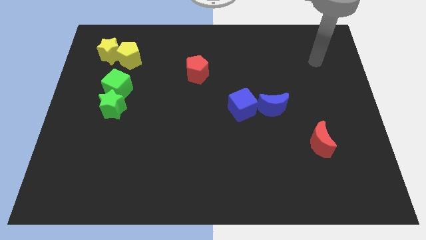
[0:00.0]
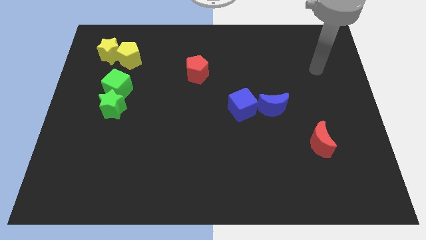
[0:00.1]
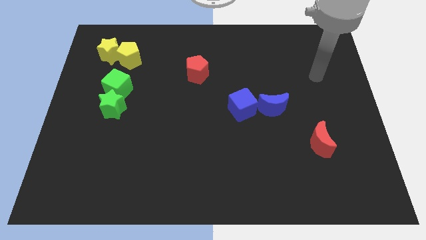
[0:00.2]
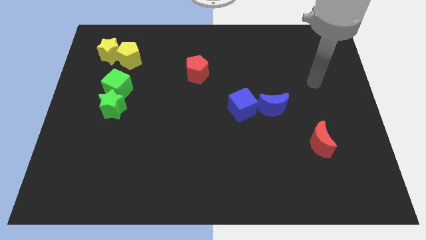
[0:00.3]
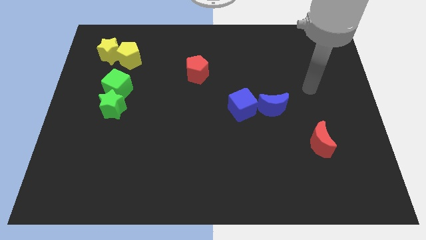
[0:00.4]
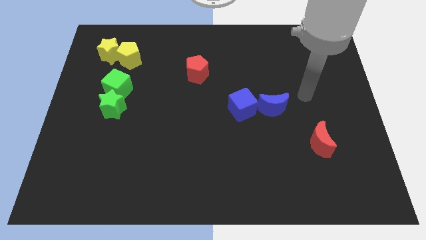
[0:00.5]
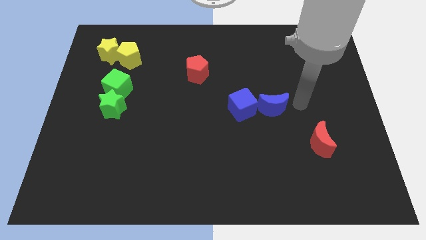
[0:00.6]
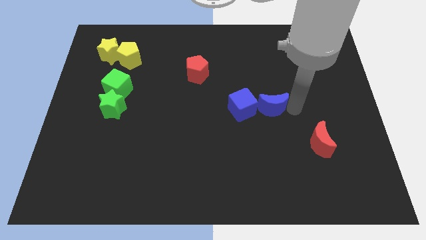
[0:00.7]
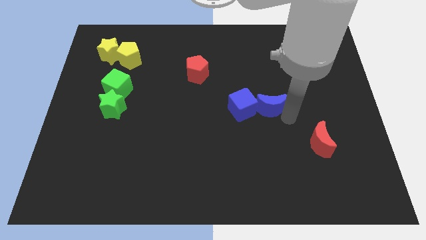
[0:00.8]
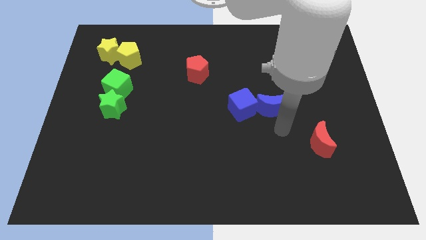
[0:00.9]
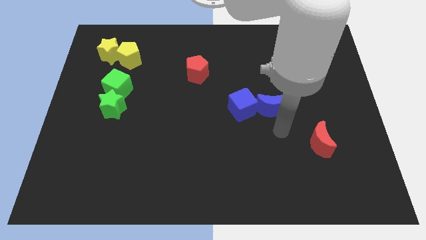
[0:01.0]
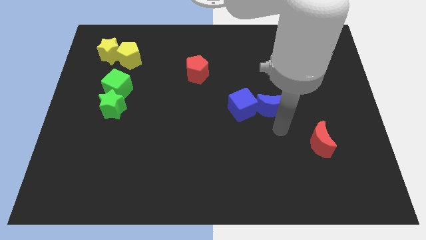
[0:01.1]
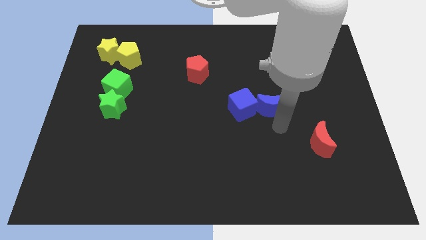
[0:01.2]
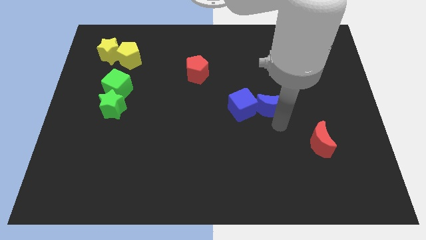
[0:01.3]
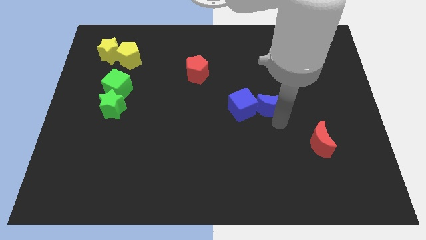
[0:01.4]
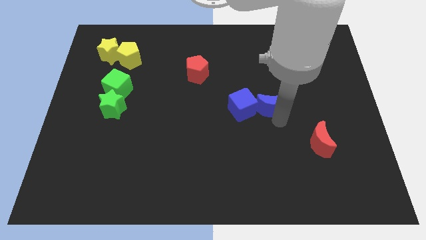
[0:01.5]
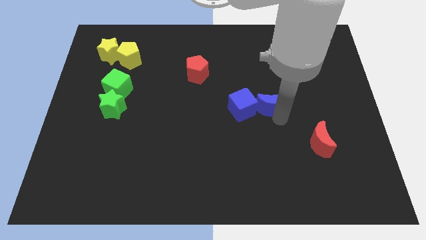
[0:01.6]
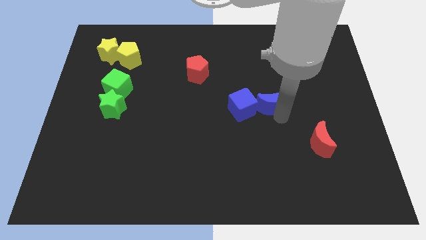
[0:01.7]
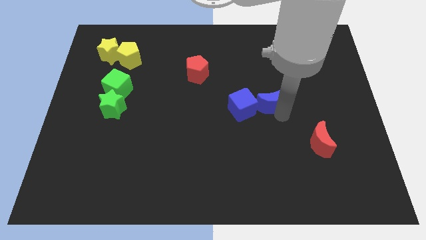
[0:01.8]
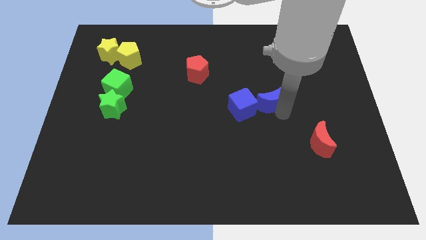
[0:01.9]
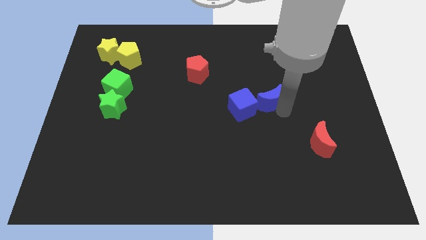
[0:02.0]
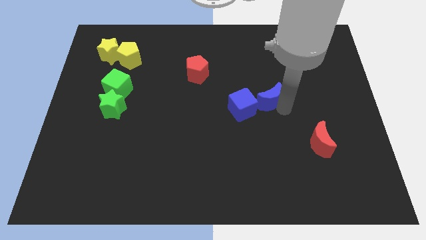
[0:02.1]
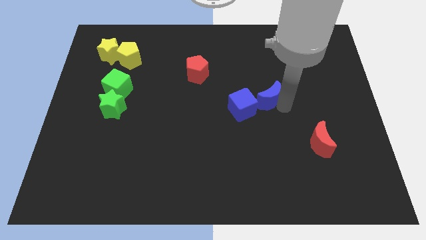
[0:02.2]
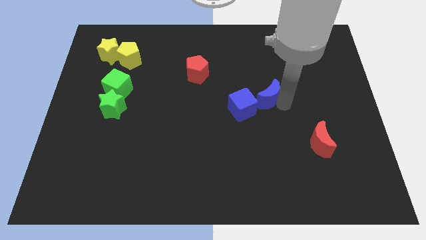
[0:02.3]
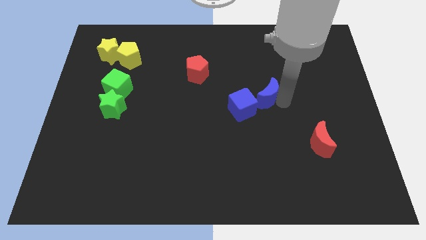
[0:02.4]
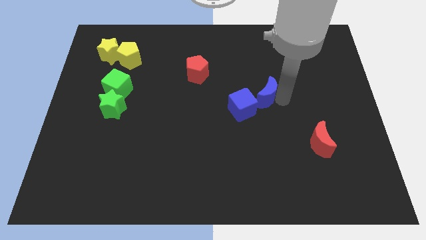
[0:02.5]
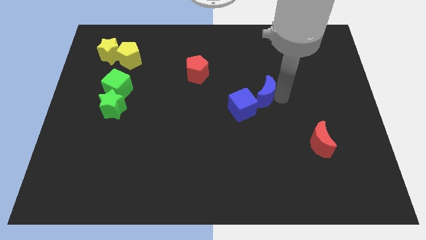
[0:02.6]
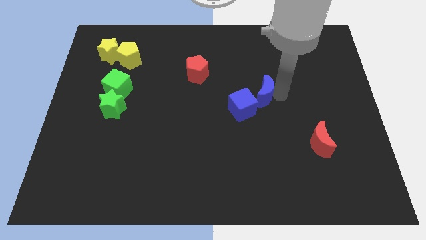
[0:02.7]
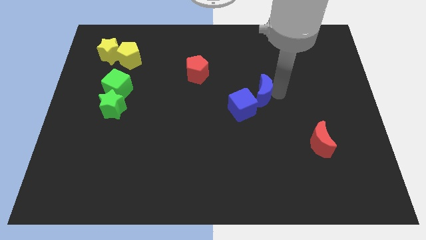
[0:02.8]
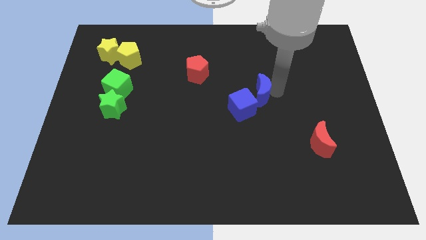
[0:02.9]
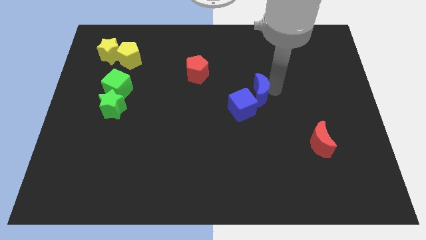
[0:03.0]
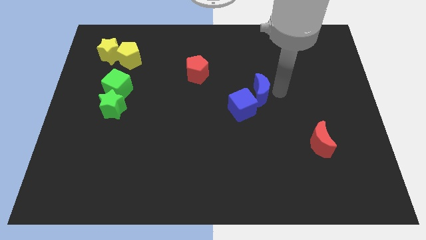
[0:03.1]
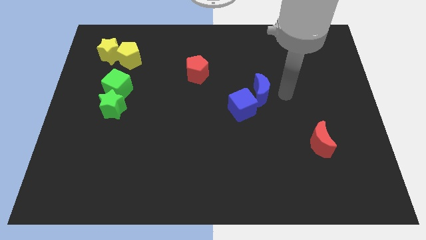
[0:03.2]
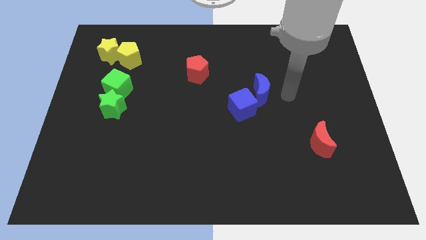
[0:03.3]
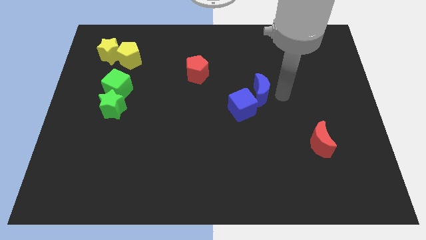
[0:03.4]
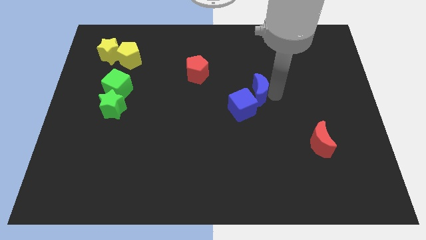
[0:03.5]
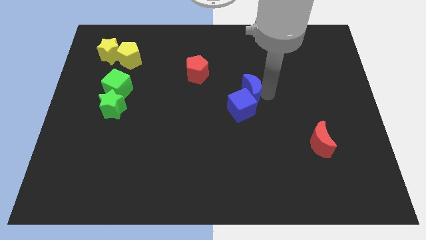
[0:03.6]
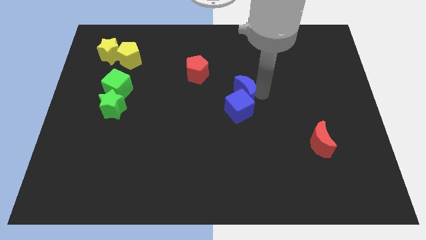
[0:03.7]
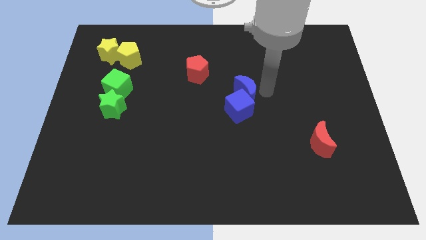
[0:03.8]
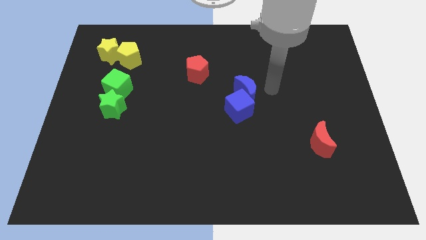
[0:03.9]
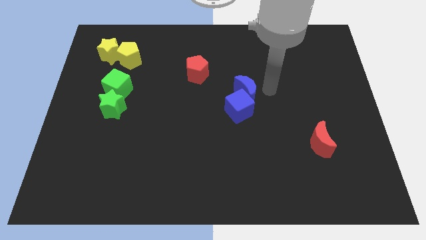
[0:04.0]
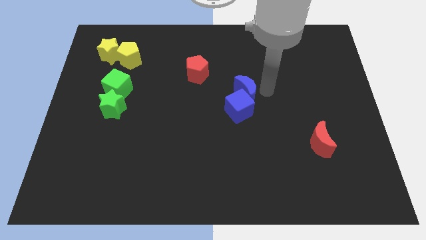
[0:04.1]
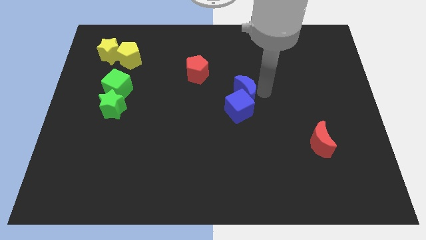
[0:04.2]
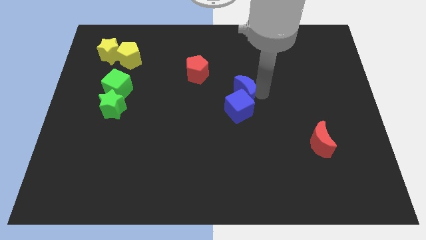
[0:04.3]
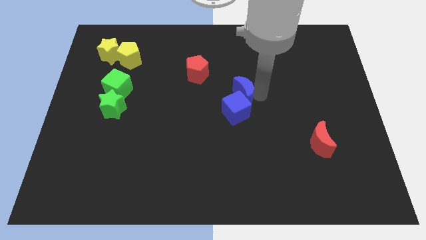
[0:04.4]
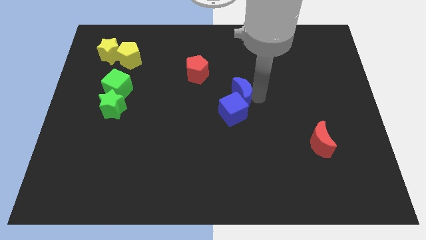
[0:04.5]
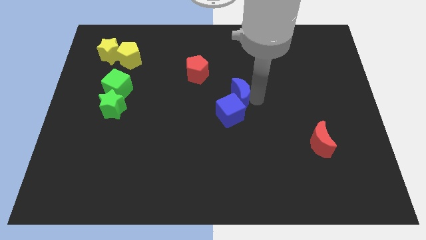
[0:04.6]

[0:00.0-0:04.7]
move the blue moon to the left a little bit

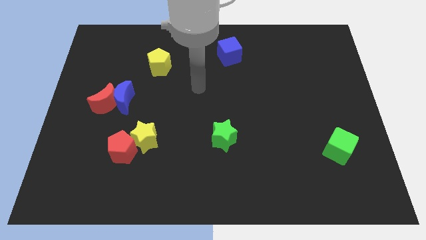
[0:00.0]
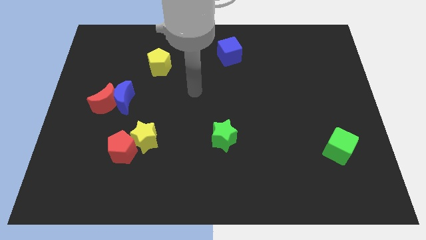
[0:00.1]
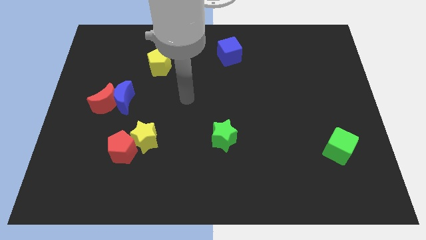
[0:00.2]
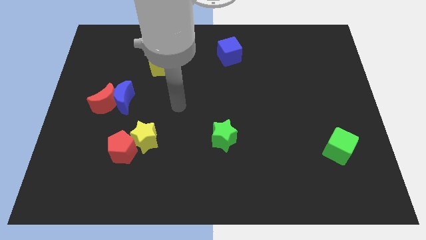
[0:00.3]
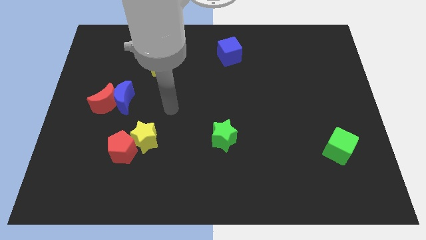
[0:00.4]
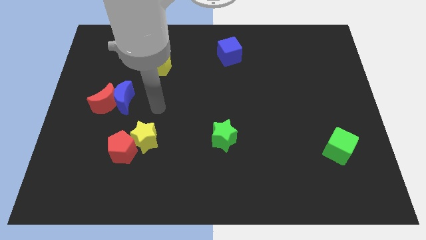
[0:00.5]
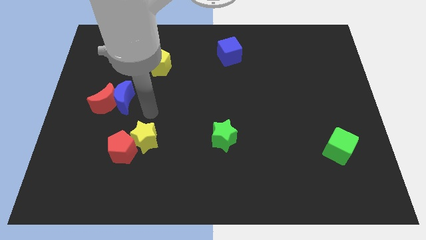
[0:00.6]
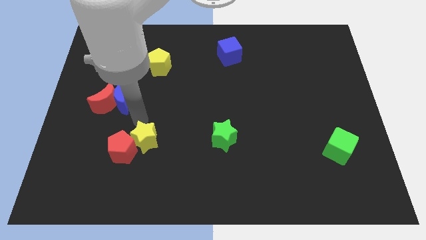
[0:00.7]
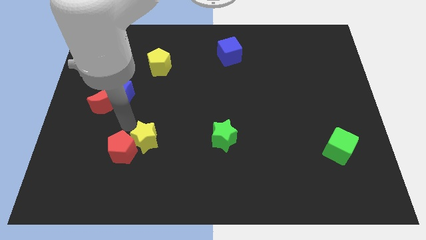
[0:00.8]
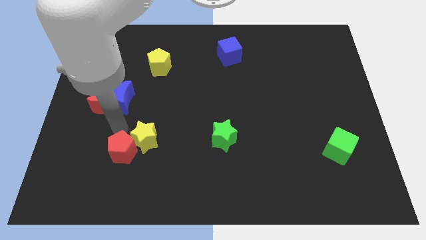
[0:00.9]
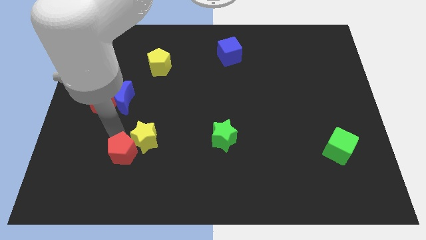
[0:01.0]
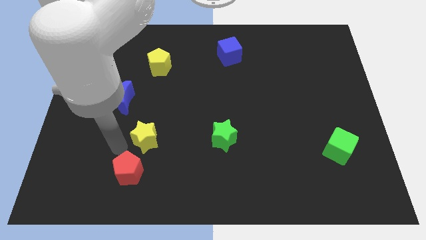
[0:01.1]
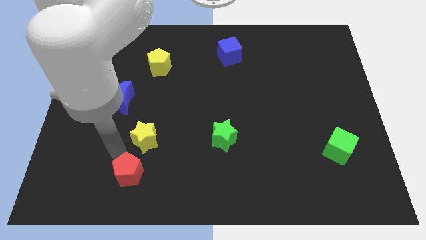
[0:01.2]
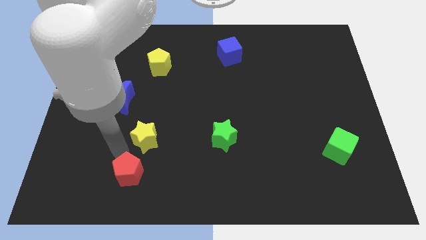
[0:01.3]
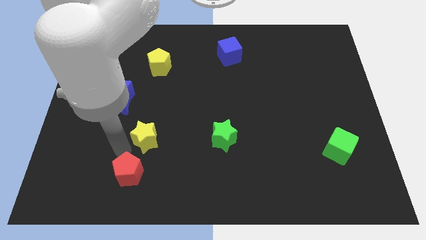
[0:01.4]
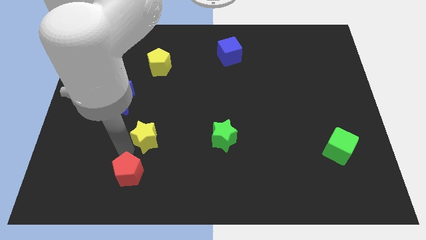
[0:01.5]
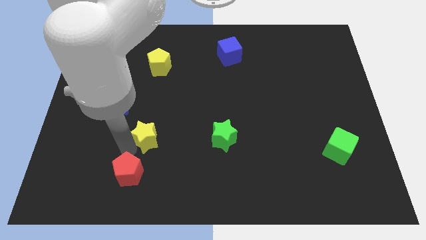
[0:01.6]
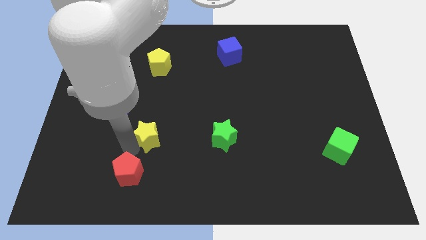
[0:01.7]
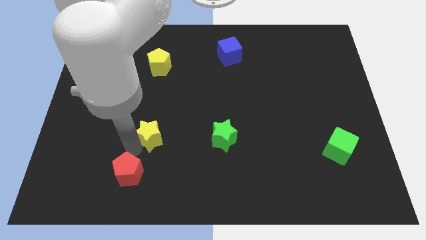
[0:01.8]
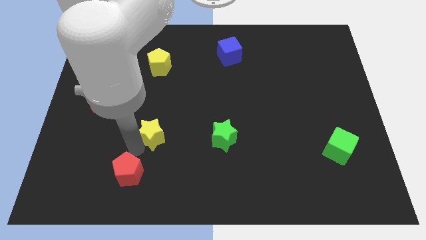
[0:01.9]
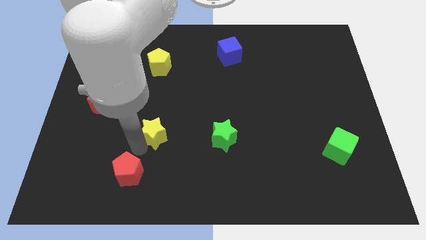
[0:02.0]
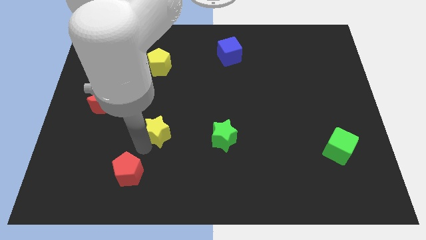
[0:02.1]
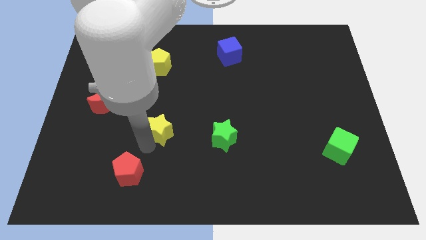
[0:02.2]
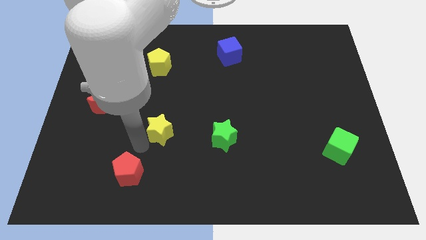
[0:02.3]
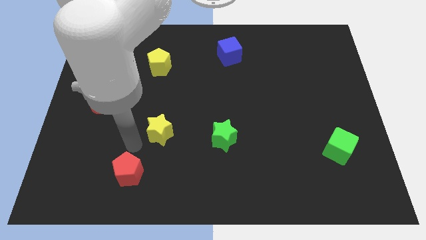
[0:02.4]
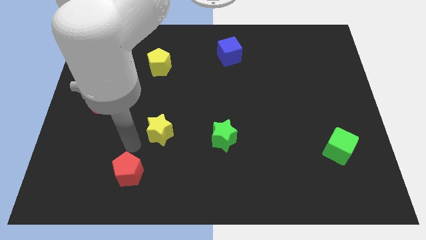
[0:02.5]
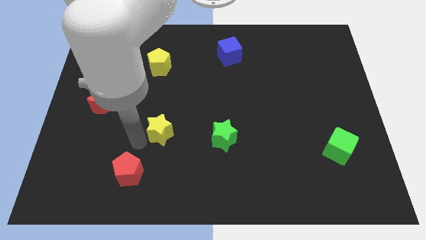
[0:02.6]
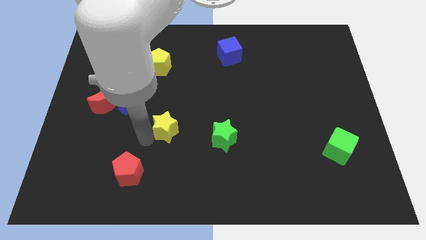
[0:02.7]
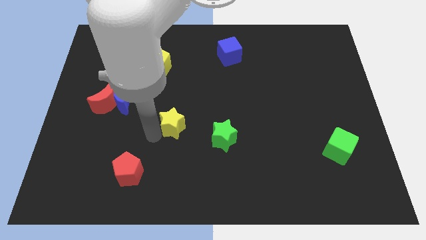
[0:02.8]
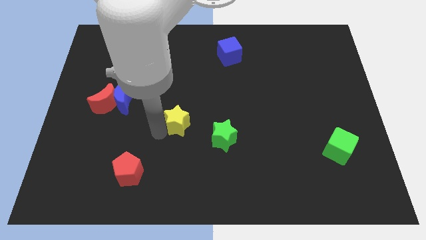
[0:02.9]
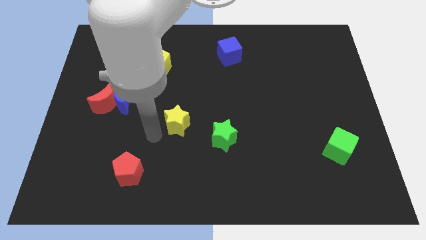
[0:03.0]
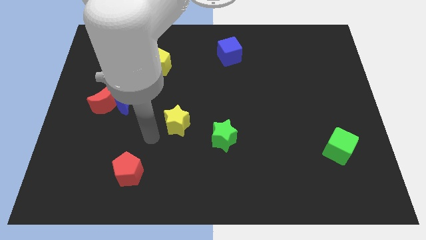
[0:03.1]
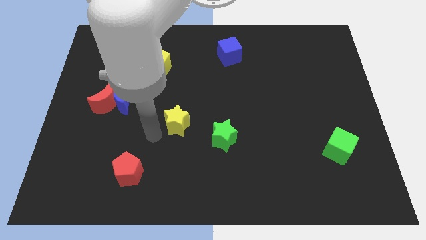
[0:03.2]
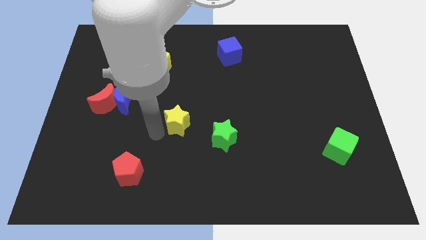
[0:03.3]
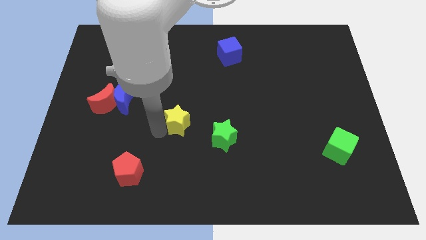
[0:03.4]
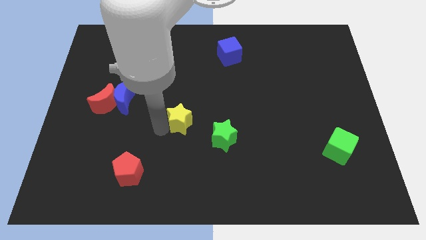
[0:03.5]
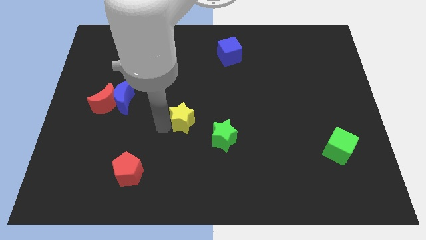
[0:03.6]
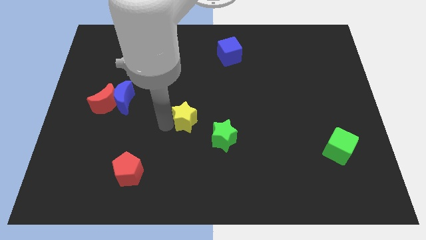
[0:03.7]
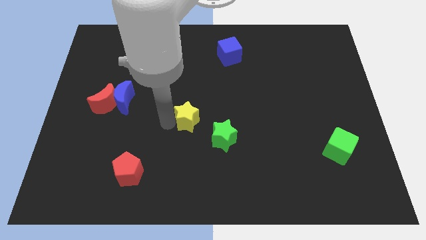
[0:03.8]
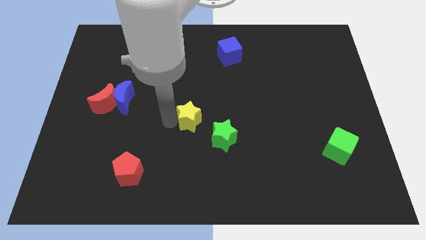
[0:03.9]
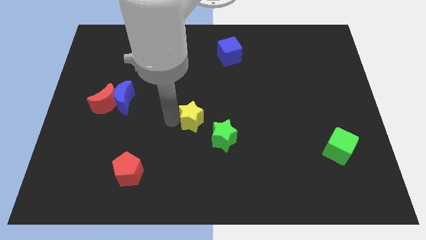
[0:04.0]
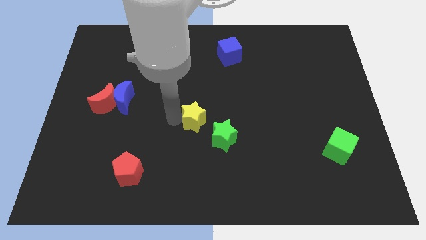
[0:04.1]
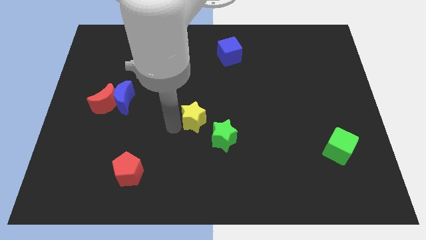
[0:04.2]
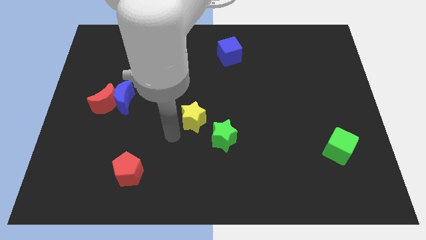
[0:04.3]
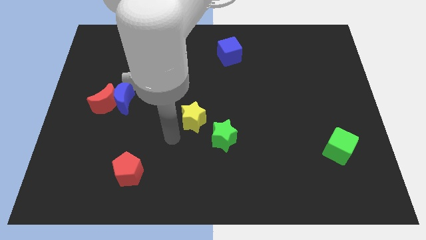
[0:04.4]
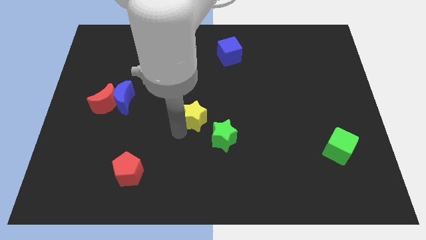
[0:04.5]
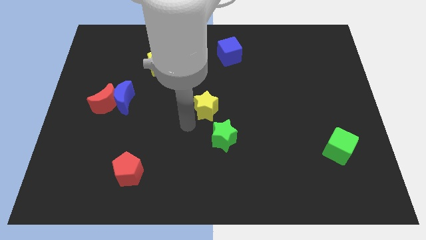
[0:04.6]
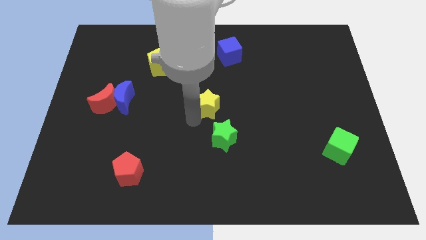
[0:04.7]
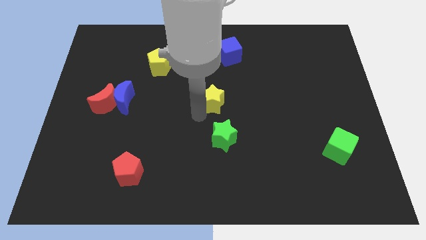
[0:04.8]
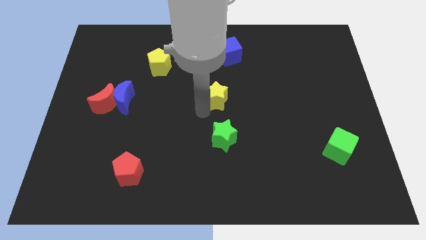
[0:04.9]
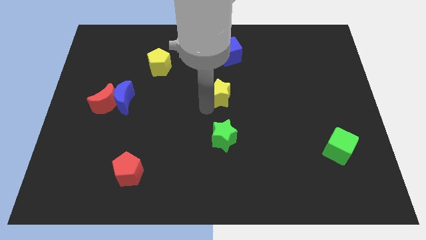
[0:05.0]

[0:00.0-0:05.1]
move the yellow star diagonally upwards and to the right
